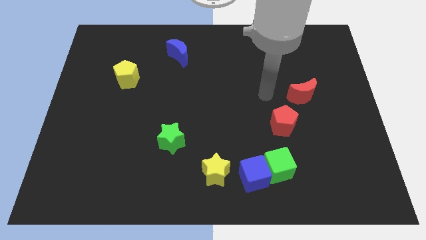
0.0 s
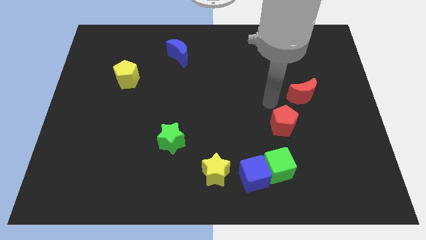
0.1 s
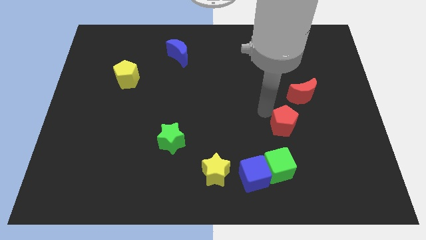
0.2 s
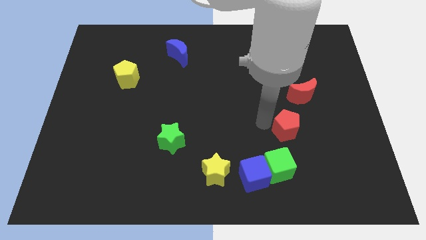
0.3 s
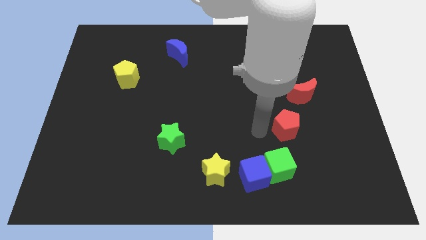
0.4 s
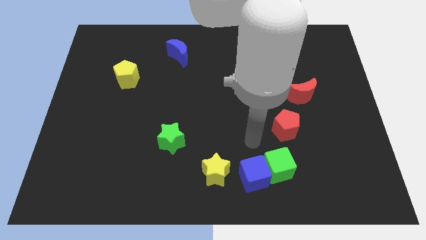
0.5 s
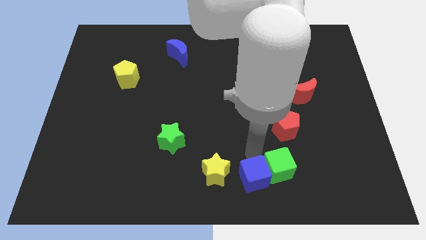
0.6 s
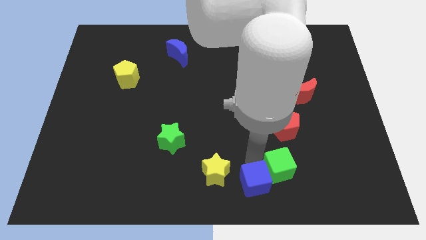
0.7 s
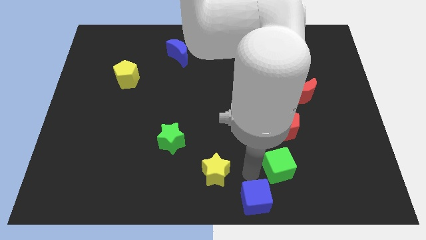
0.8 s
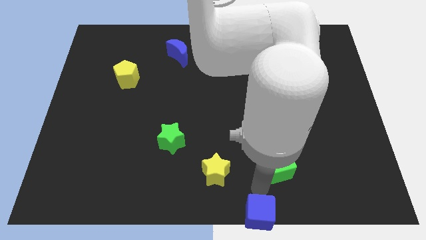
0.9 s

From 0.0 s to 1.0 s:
separate the green cube from the blue cube

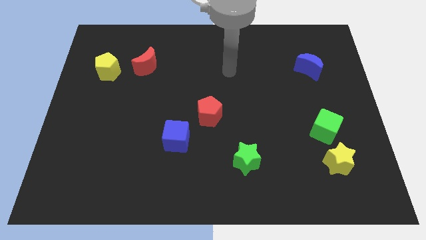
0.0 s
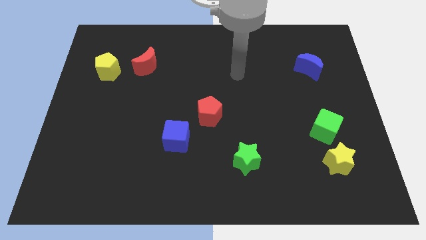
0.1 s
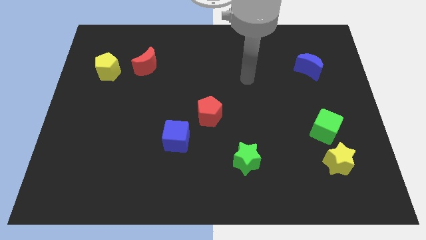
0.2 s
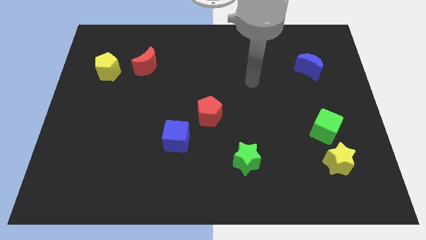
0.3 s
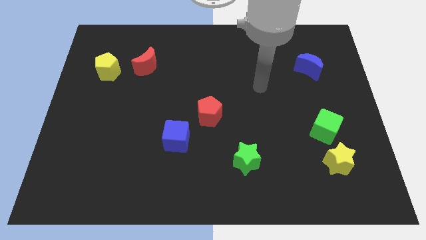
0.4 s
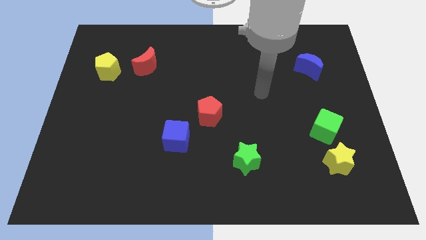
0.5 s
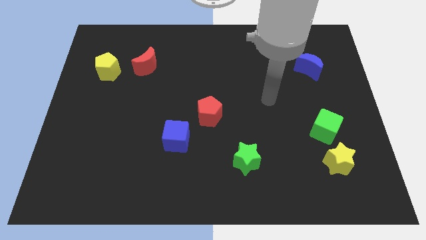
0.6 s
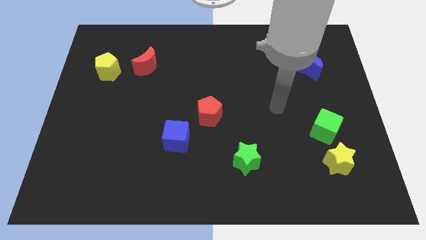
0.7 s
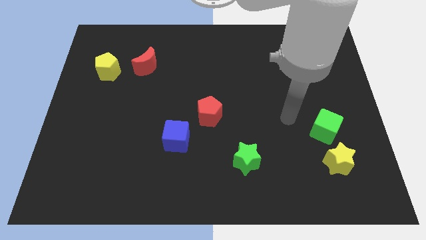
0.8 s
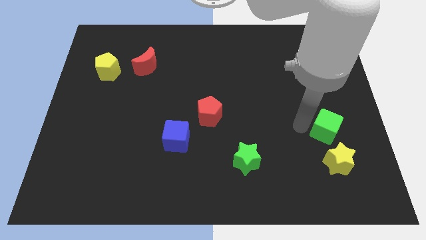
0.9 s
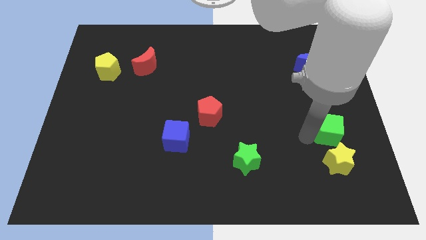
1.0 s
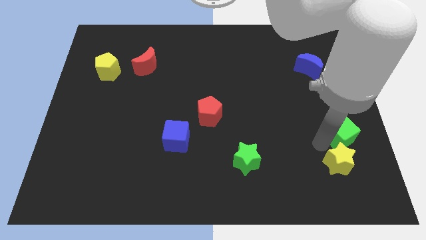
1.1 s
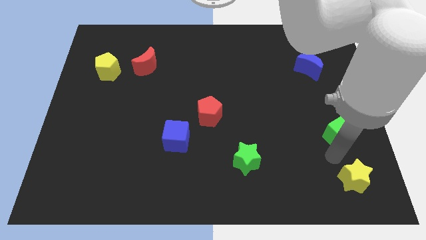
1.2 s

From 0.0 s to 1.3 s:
pull the green cube apart from the yellow star

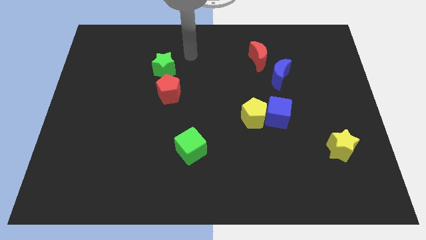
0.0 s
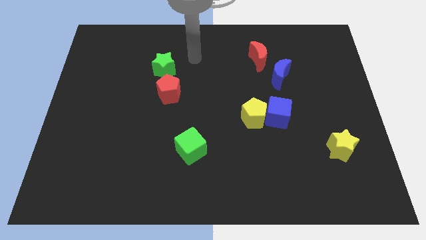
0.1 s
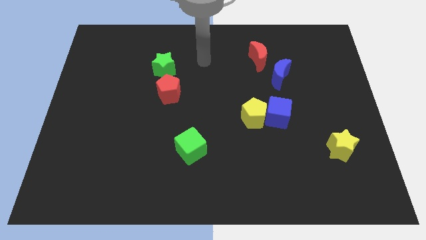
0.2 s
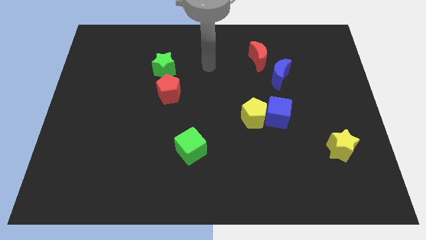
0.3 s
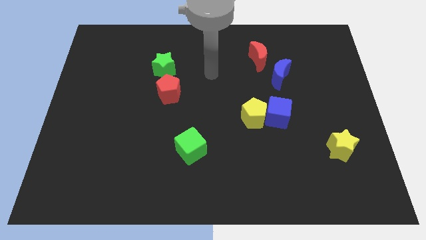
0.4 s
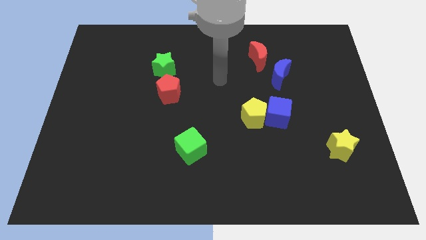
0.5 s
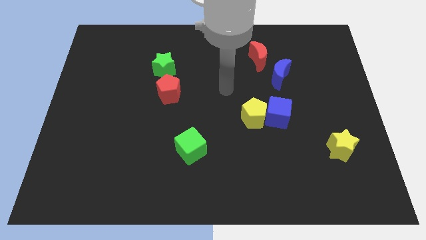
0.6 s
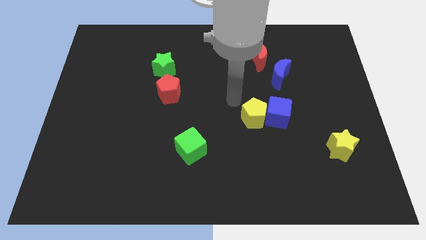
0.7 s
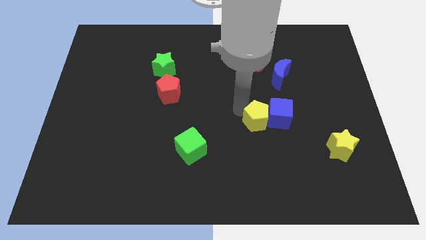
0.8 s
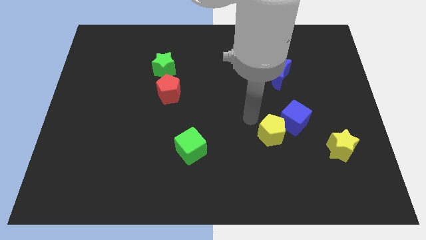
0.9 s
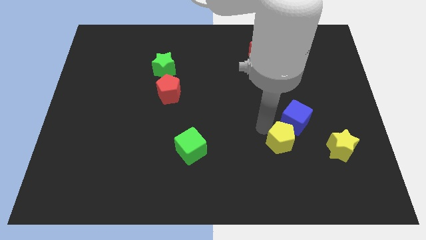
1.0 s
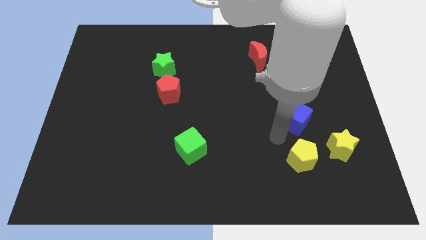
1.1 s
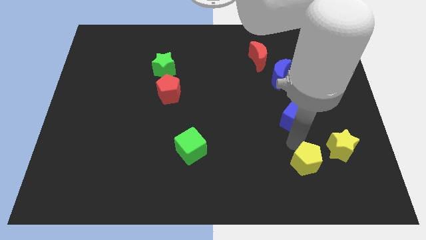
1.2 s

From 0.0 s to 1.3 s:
pull the blue cube apart from the yellow pentagon

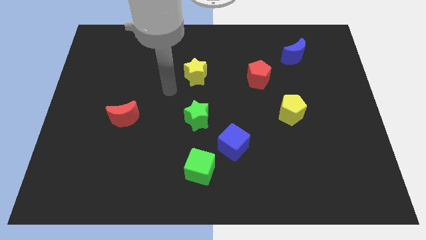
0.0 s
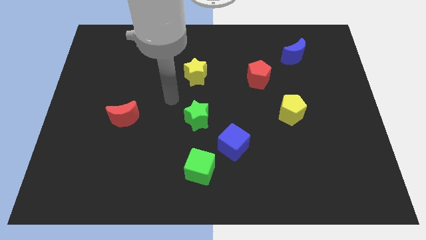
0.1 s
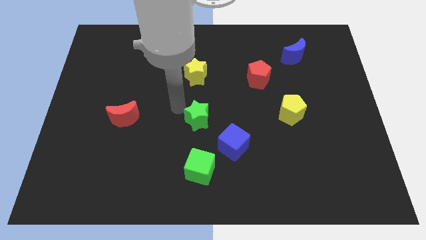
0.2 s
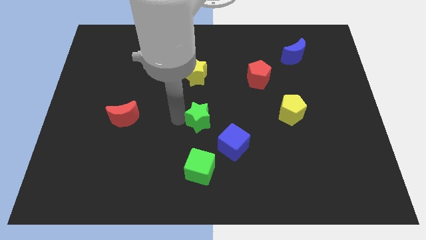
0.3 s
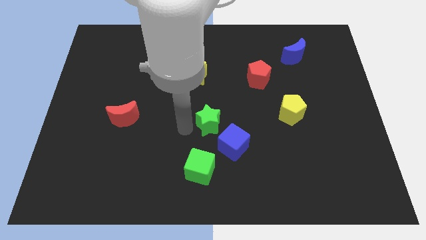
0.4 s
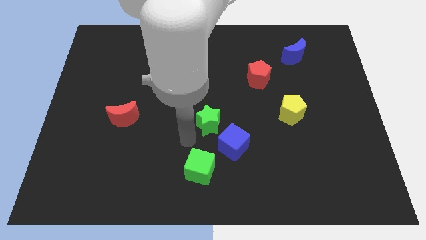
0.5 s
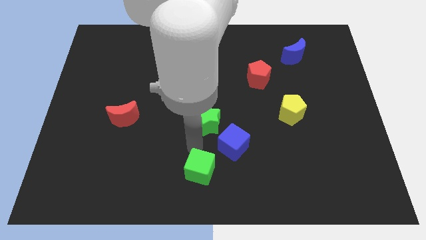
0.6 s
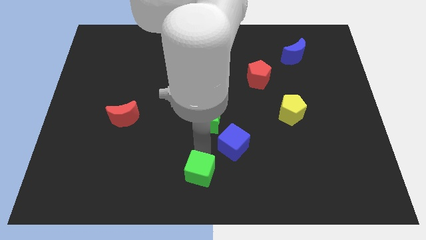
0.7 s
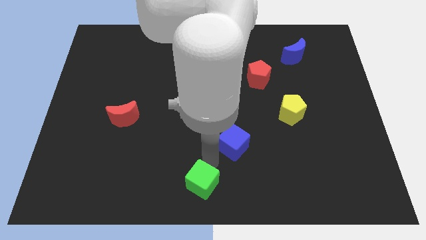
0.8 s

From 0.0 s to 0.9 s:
pull the blue cube apart from the green cube

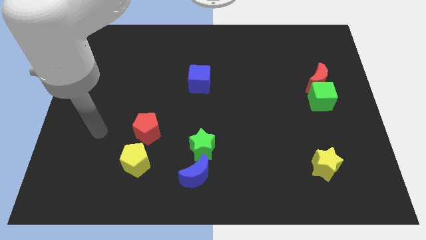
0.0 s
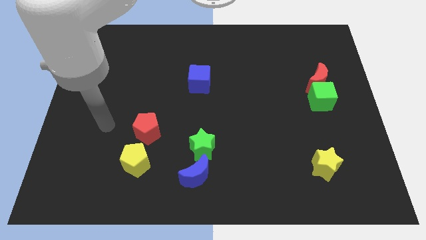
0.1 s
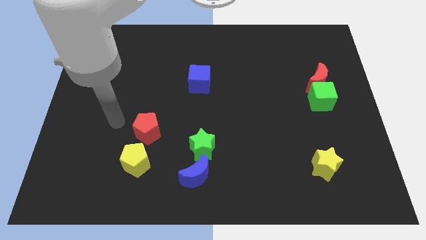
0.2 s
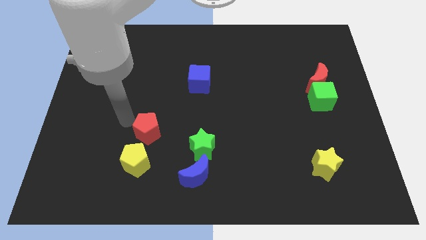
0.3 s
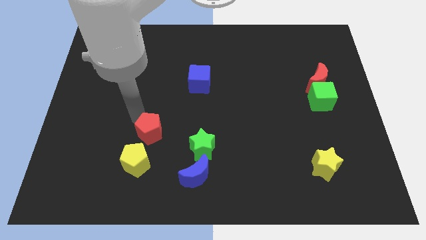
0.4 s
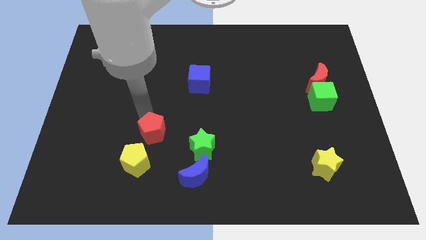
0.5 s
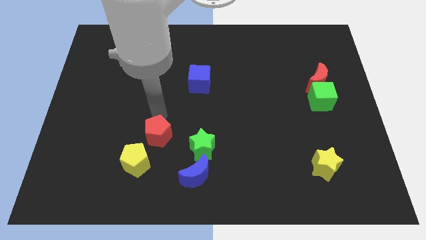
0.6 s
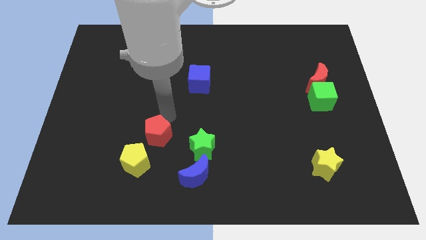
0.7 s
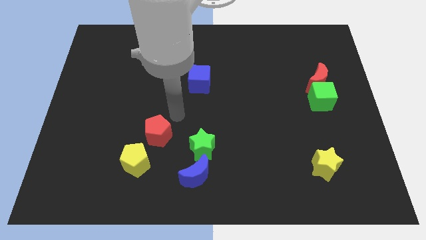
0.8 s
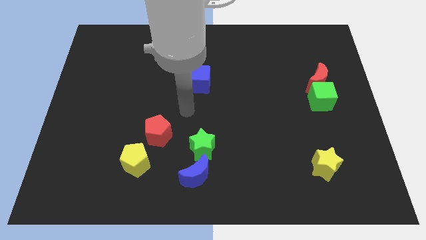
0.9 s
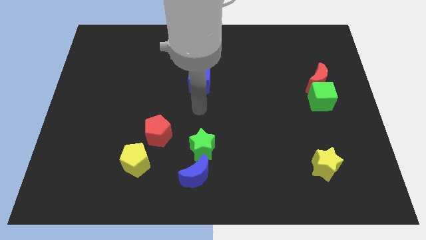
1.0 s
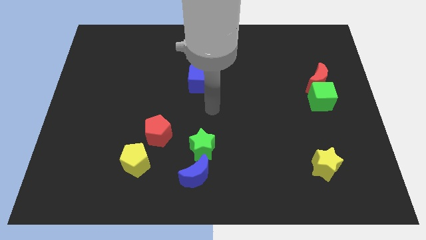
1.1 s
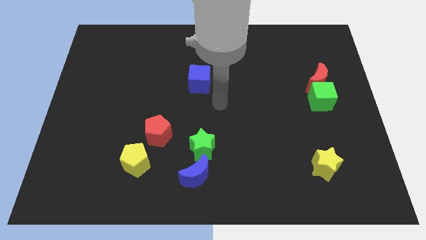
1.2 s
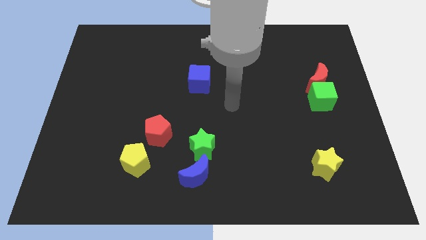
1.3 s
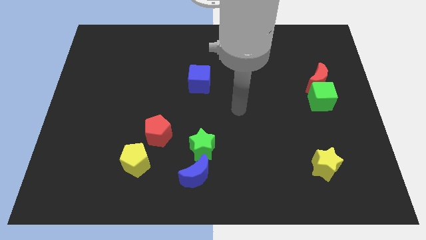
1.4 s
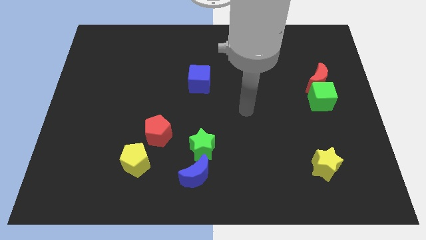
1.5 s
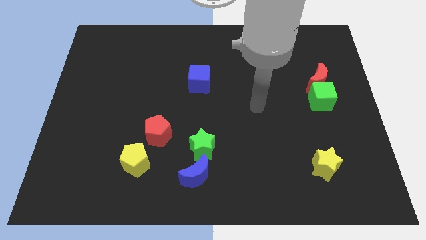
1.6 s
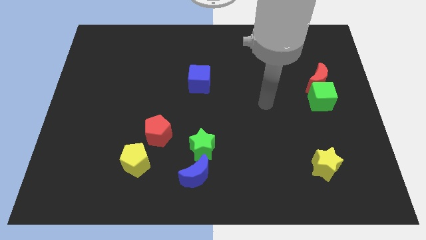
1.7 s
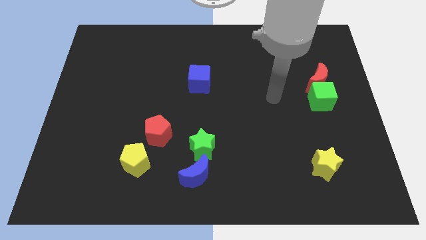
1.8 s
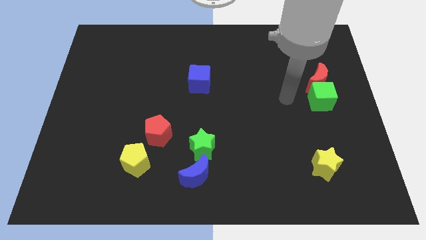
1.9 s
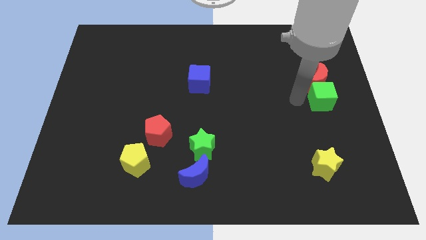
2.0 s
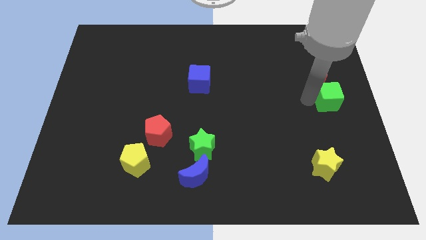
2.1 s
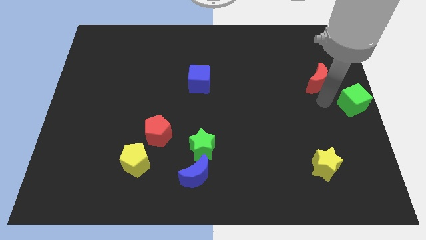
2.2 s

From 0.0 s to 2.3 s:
pull the red moon apart from the green cube

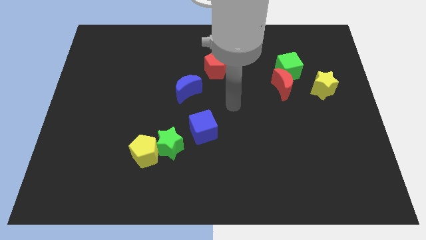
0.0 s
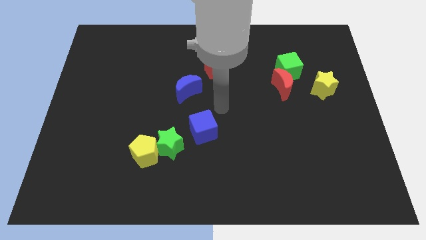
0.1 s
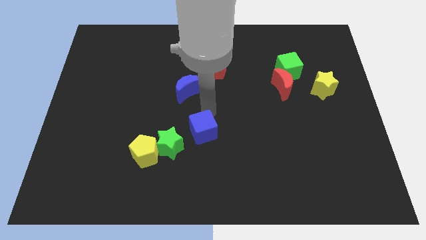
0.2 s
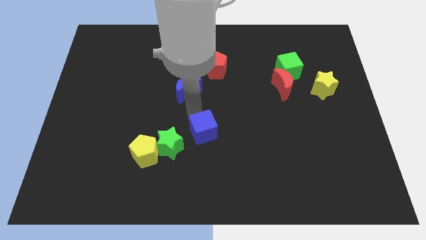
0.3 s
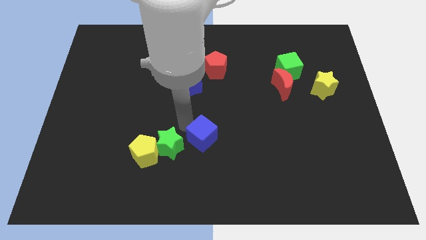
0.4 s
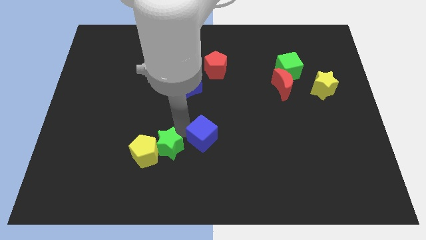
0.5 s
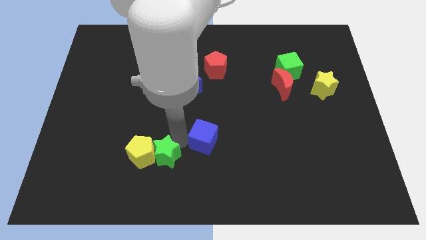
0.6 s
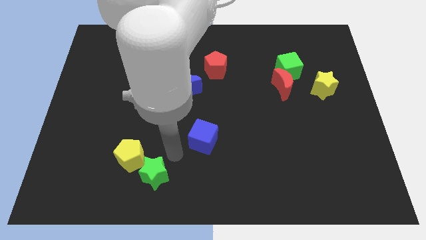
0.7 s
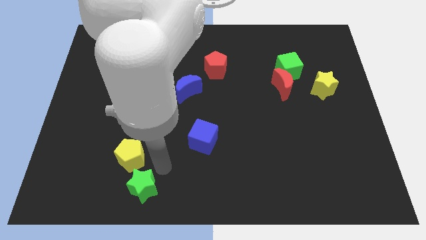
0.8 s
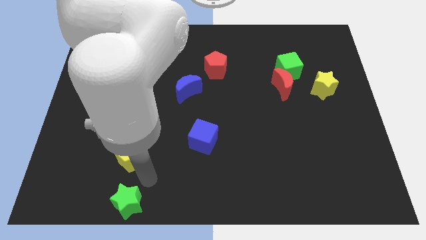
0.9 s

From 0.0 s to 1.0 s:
separate the yellow pentagon from the green star

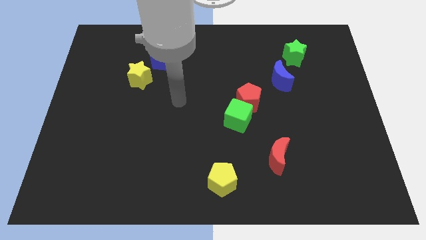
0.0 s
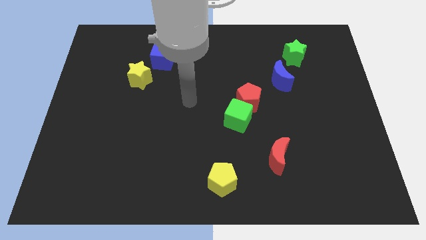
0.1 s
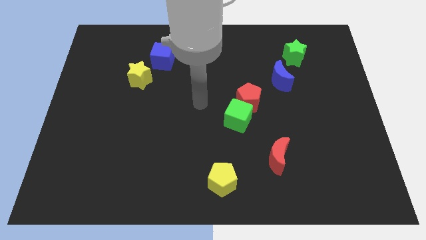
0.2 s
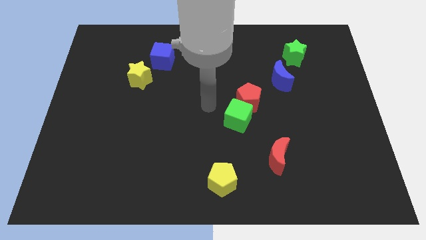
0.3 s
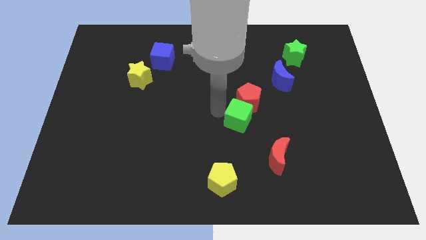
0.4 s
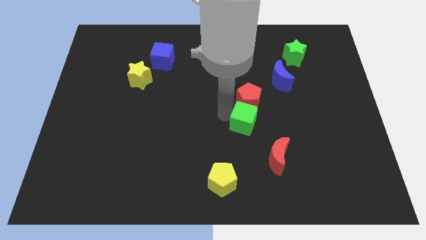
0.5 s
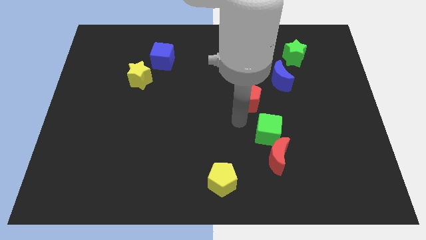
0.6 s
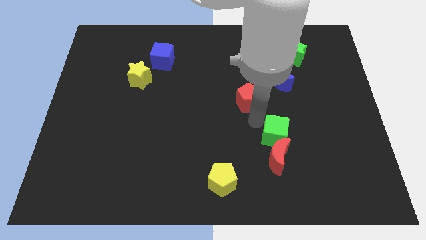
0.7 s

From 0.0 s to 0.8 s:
separate the red pentagon from the green cube

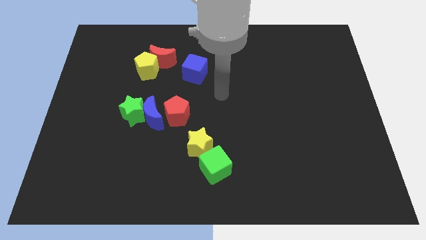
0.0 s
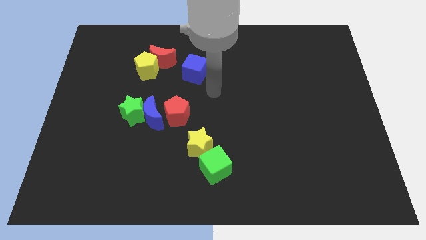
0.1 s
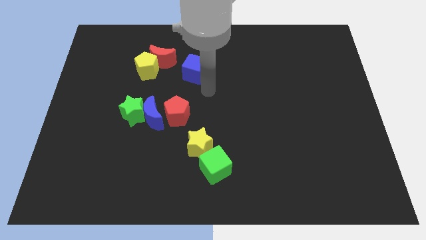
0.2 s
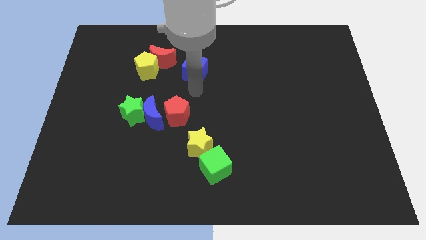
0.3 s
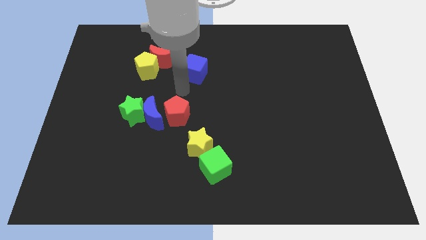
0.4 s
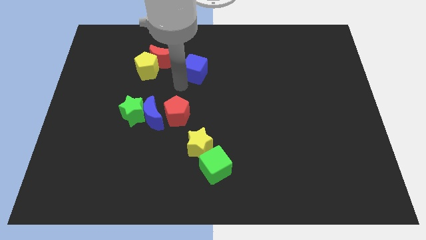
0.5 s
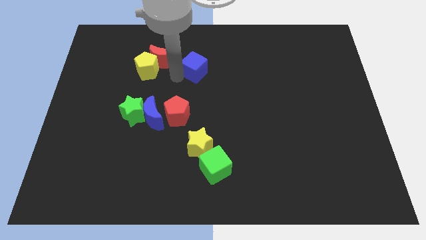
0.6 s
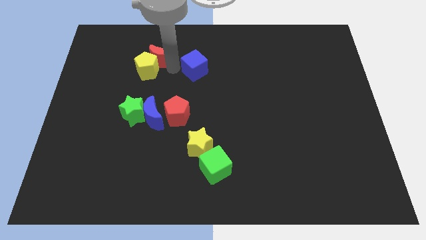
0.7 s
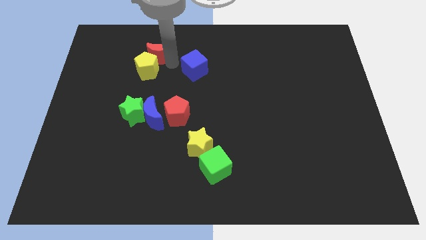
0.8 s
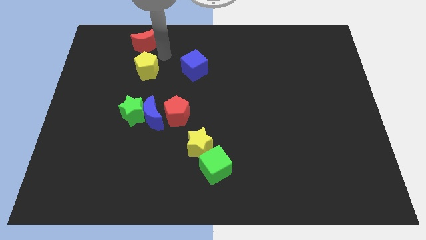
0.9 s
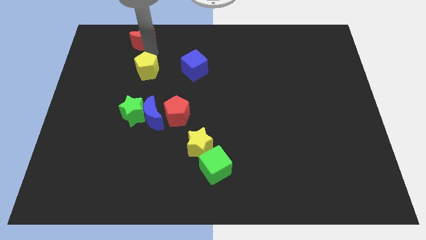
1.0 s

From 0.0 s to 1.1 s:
separate the yellow pentagon from the red moon
